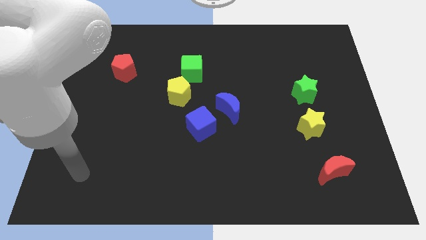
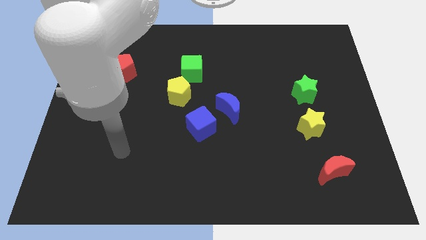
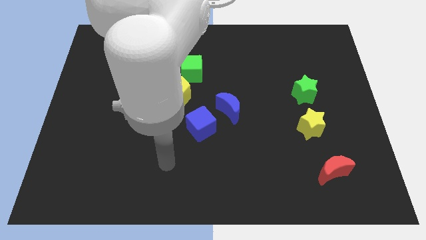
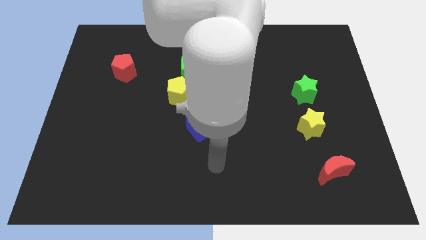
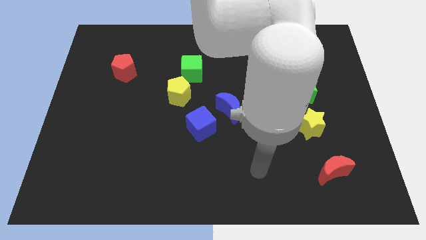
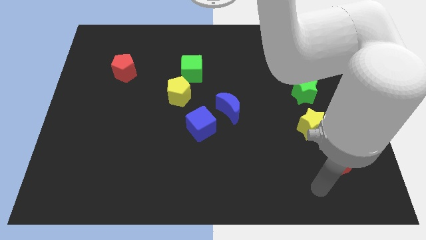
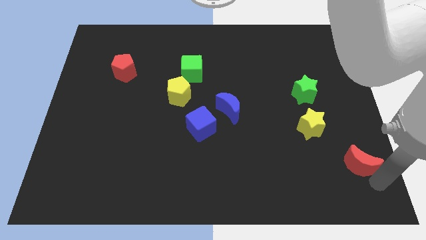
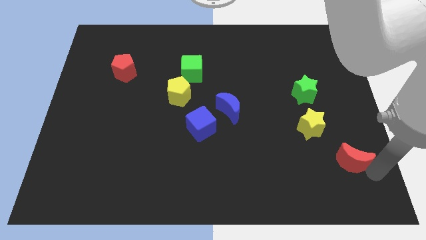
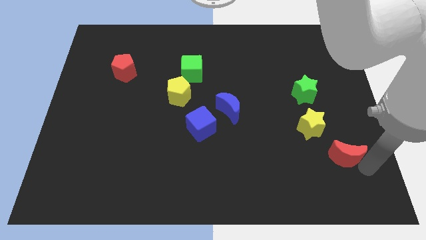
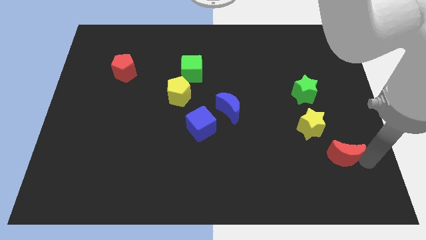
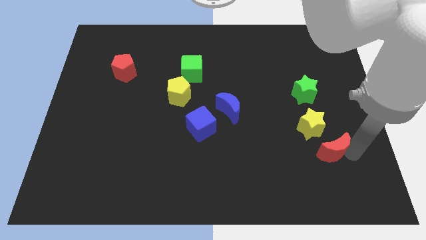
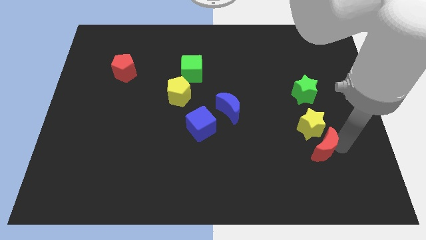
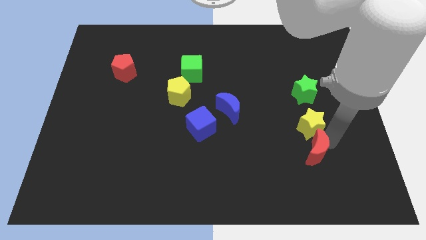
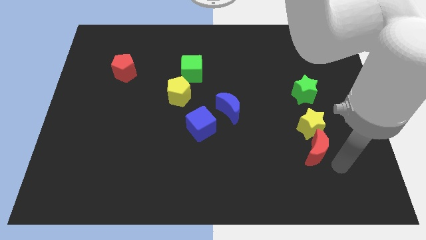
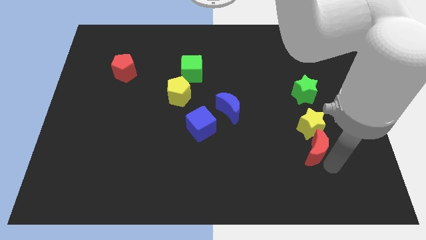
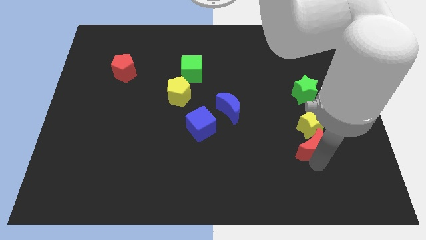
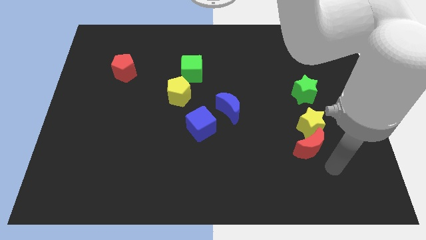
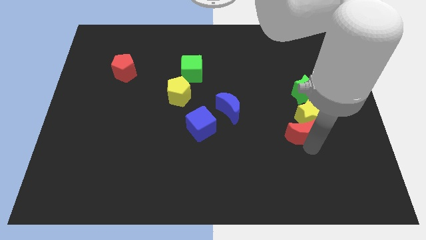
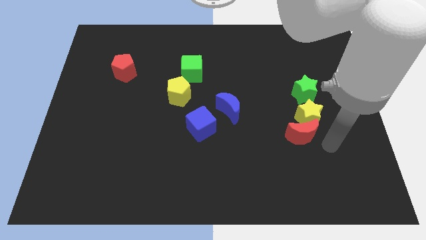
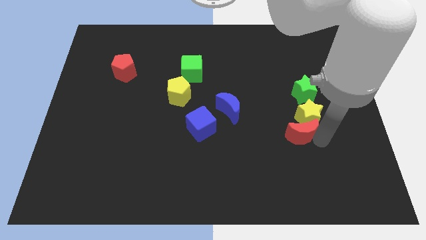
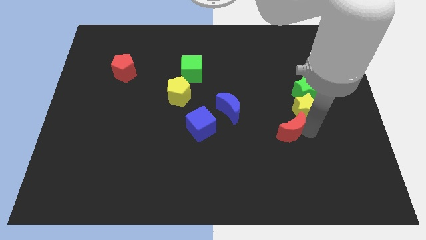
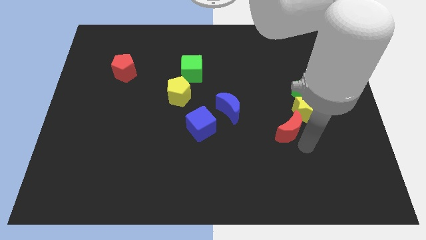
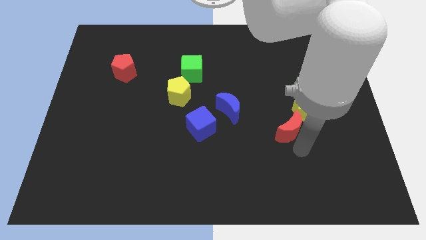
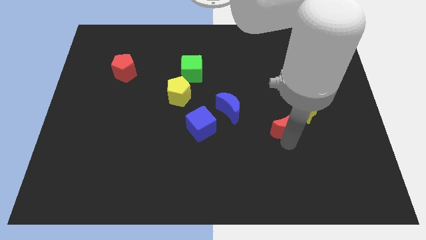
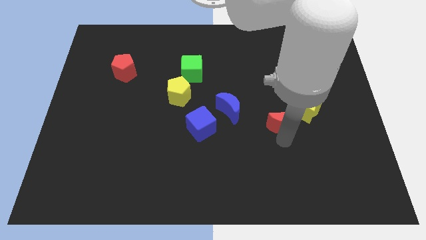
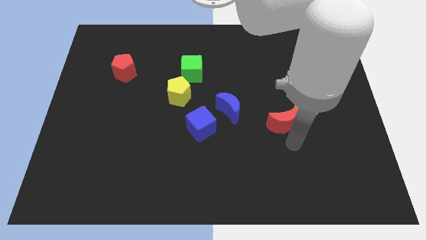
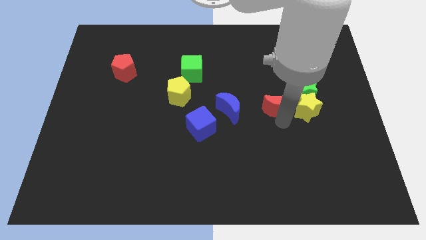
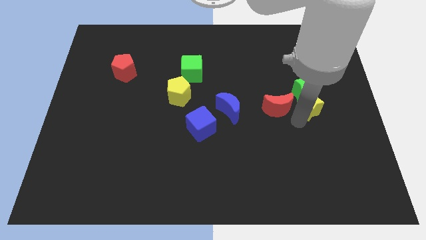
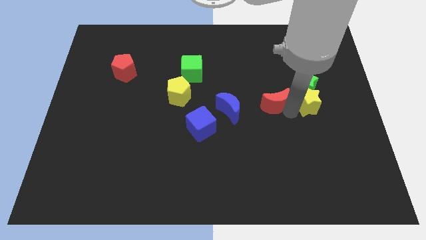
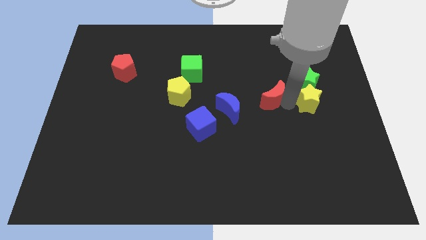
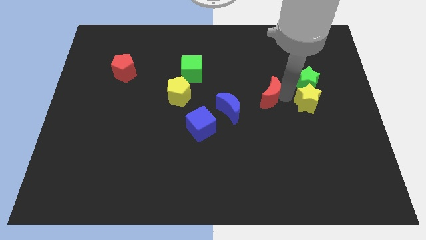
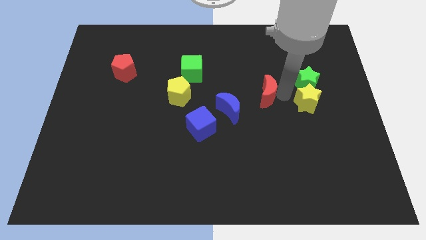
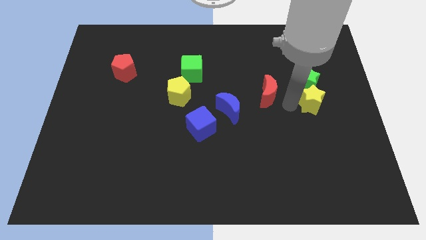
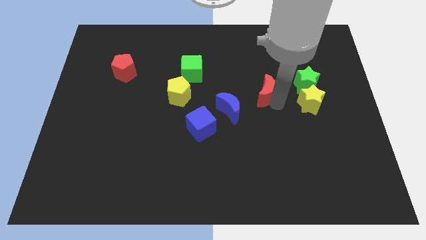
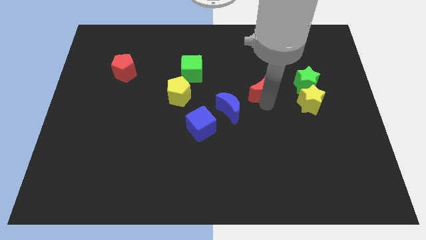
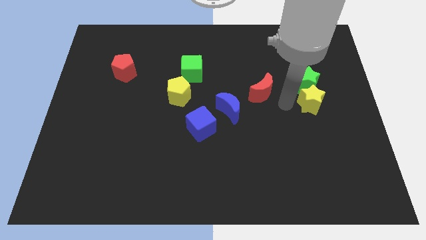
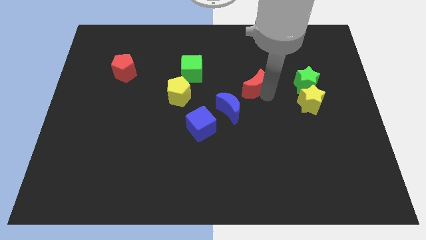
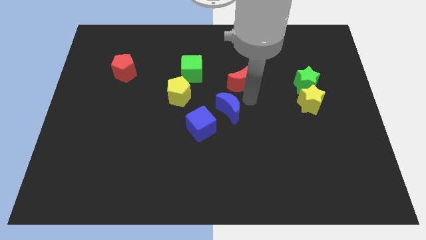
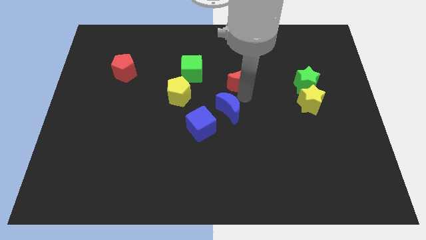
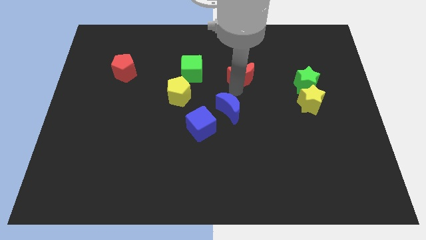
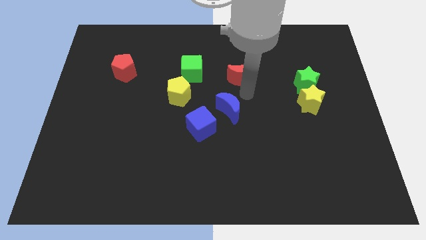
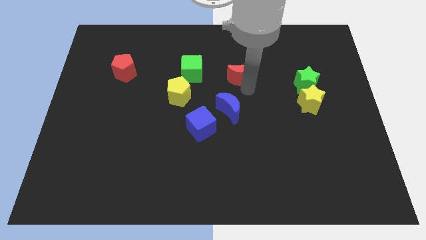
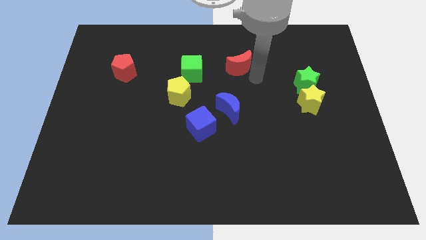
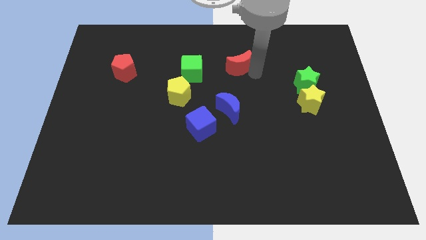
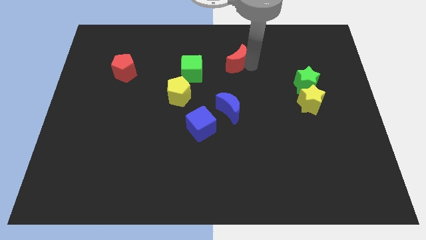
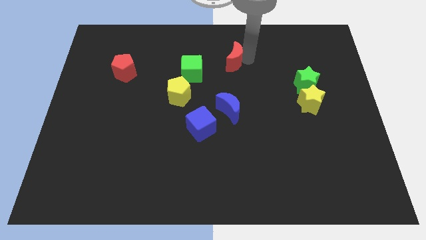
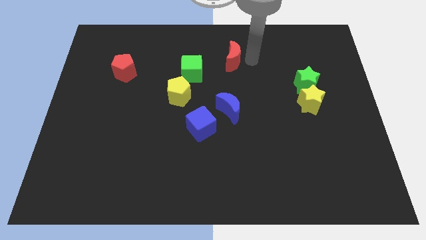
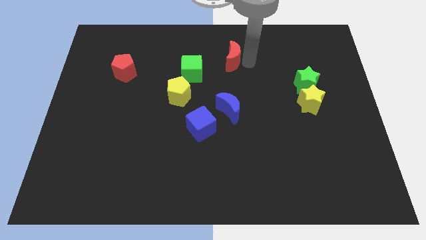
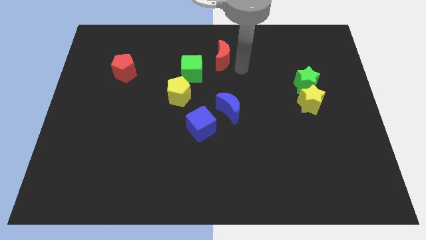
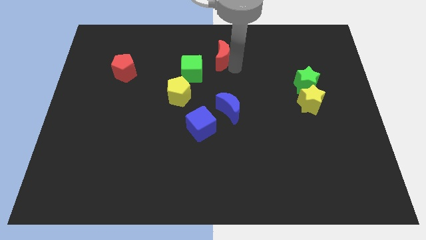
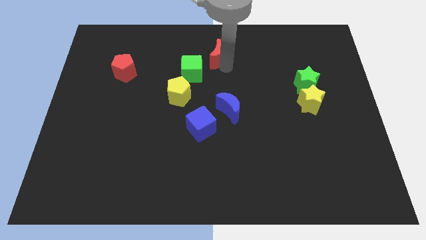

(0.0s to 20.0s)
put the red moon to the top side

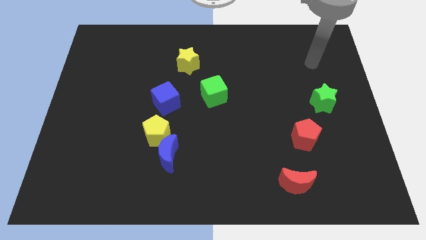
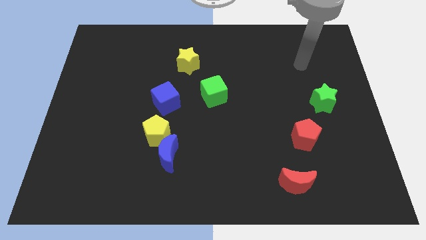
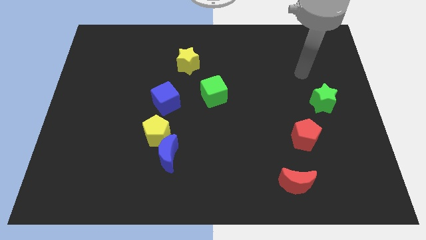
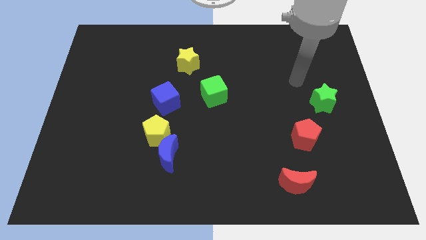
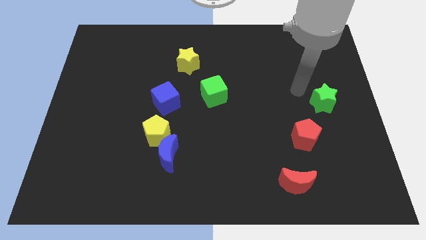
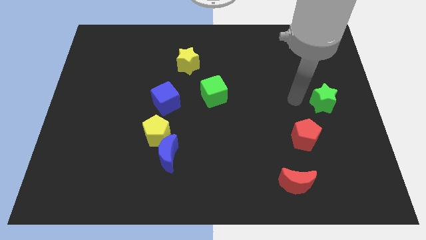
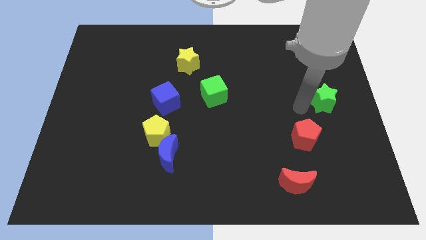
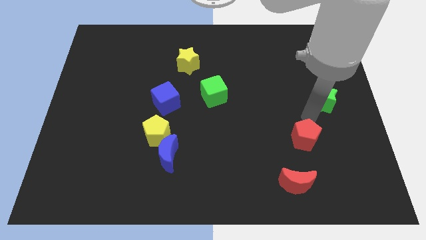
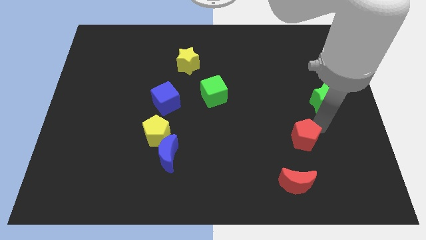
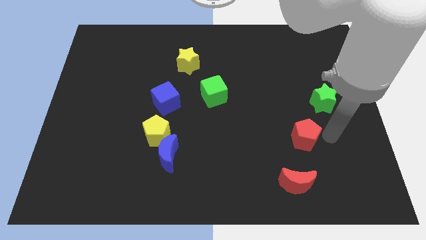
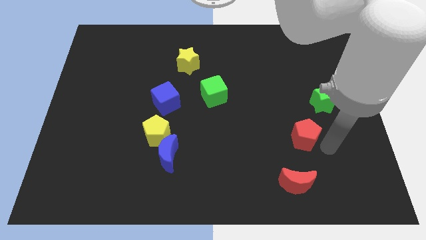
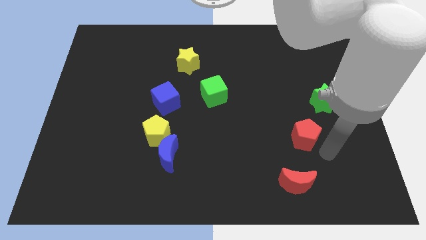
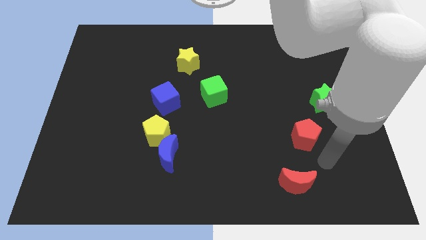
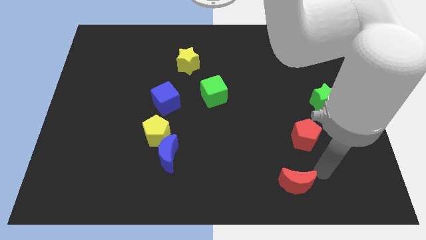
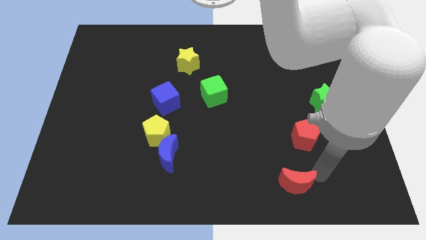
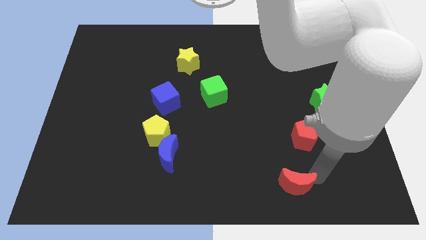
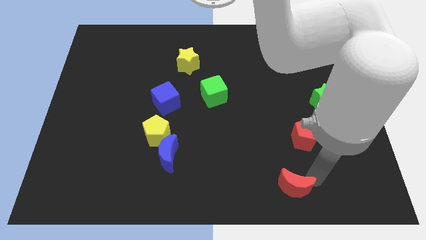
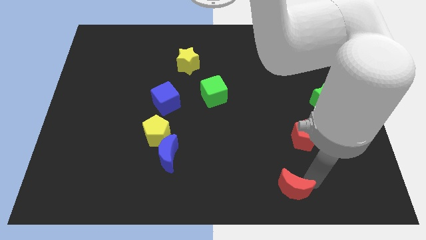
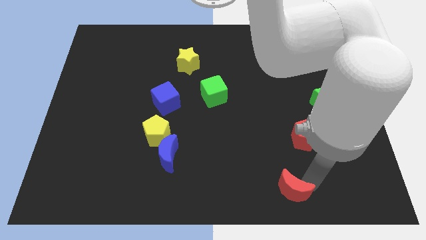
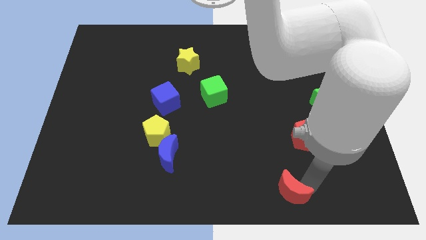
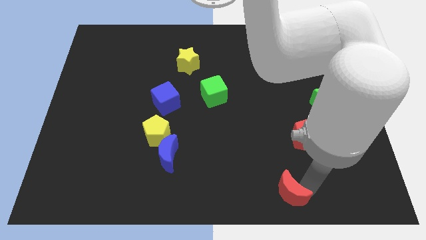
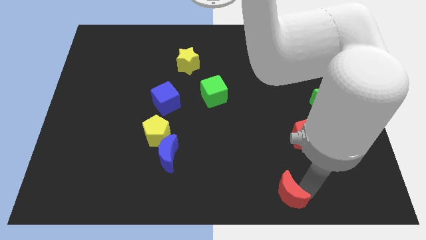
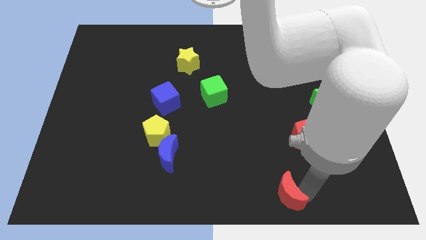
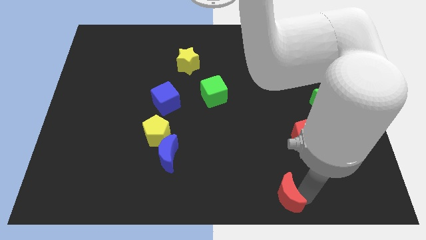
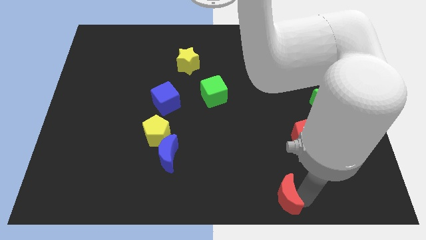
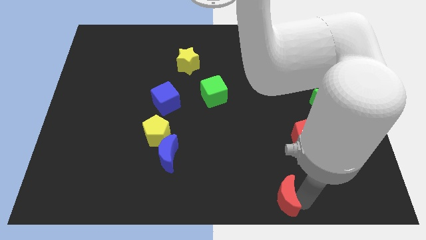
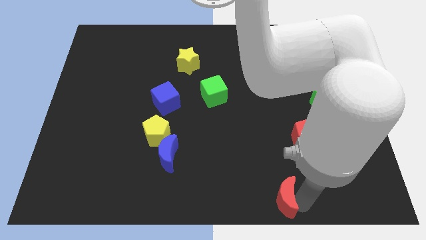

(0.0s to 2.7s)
put the red moon to the bottom side
